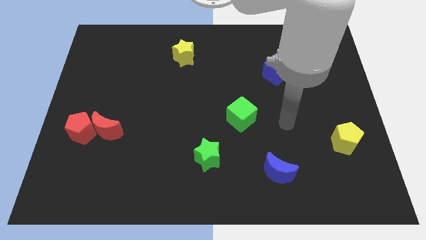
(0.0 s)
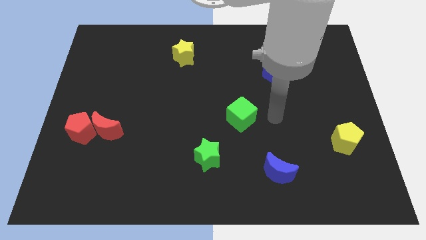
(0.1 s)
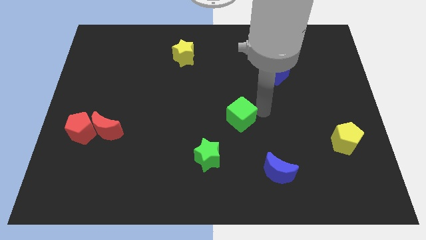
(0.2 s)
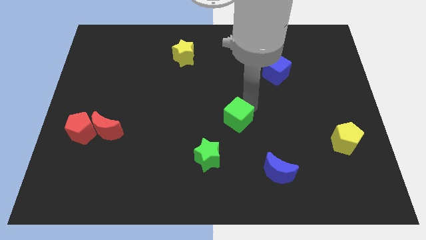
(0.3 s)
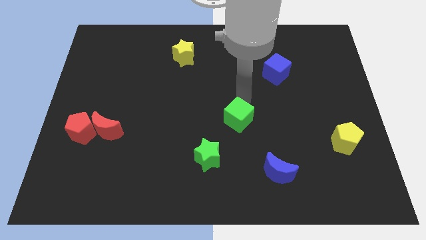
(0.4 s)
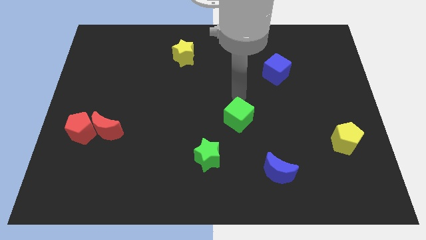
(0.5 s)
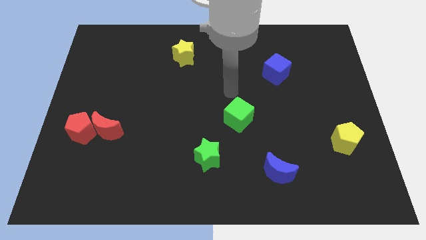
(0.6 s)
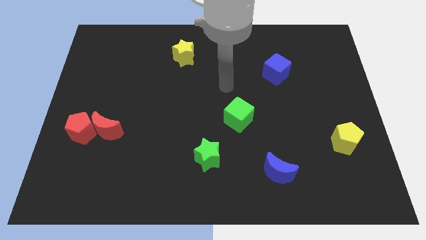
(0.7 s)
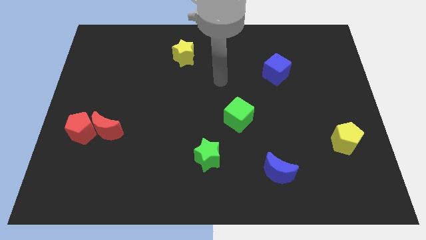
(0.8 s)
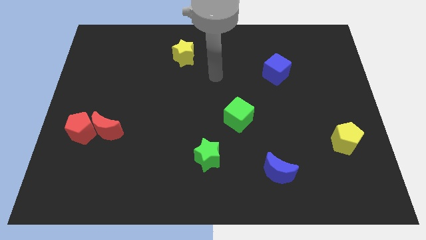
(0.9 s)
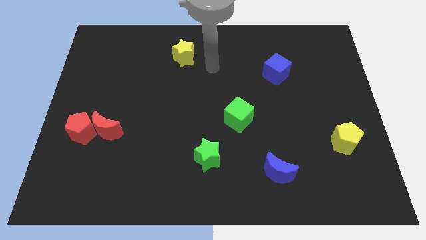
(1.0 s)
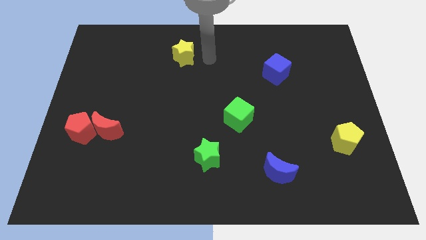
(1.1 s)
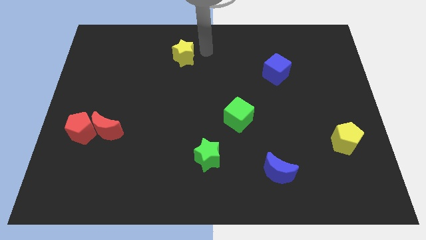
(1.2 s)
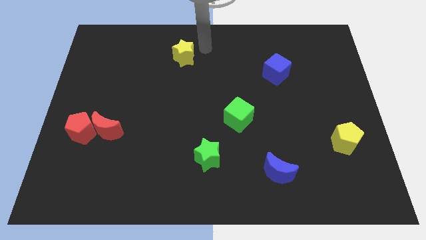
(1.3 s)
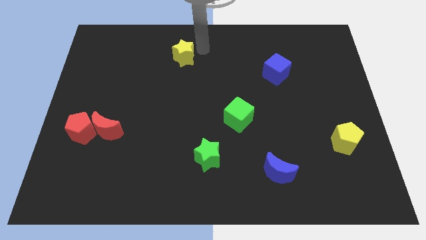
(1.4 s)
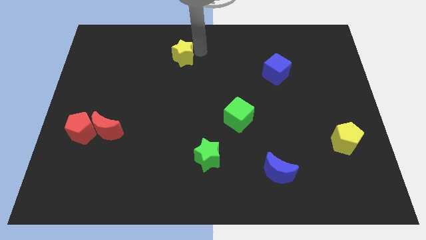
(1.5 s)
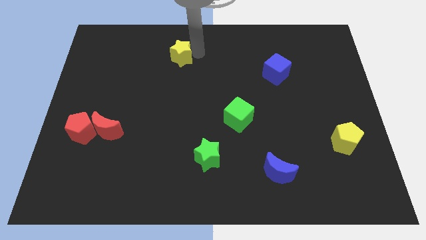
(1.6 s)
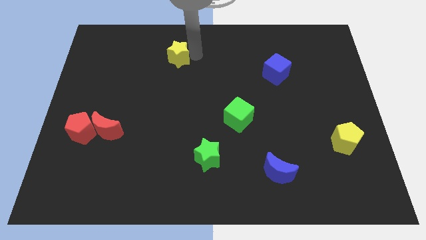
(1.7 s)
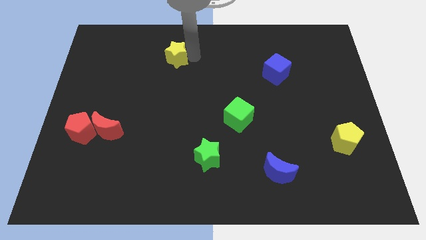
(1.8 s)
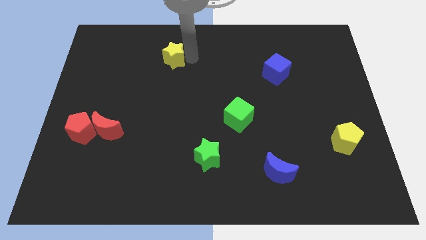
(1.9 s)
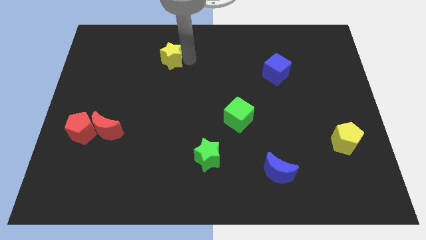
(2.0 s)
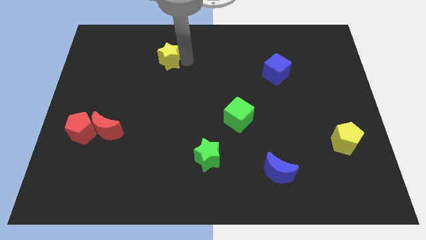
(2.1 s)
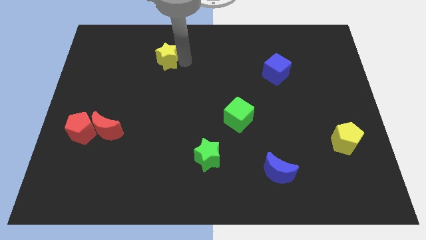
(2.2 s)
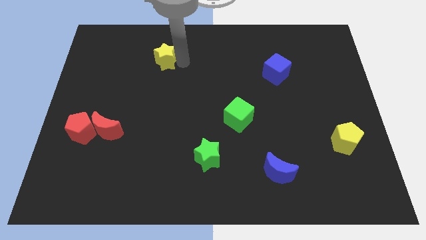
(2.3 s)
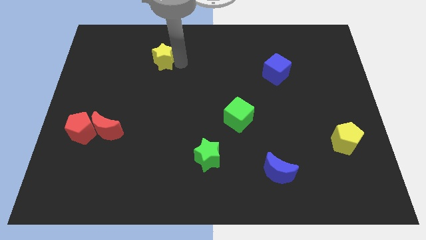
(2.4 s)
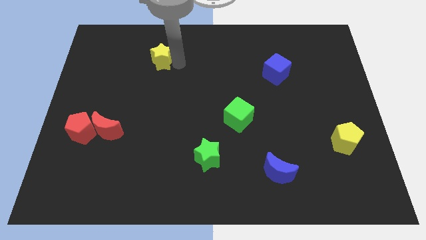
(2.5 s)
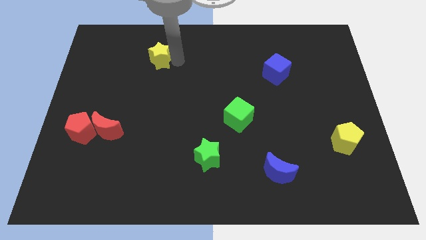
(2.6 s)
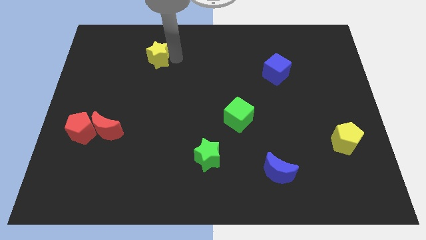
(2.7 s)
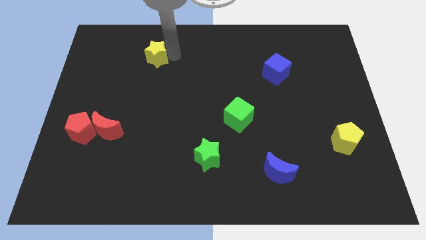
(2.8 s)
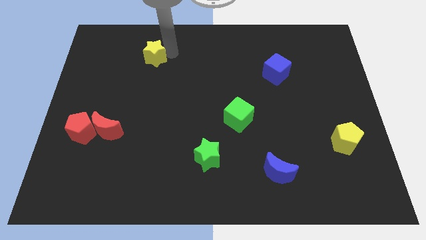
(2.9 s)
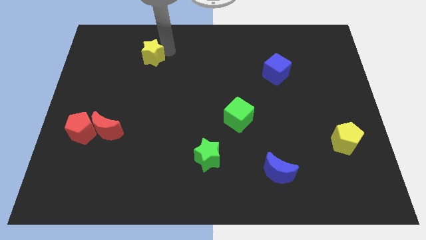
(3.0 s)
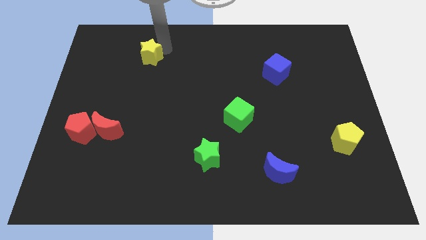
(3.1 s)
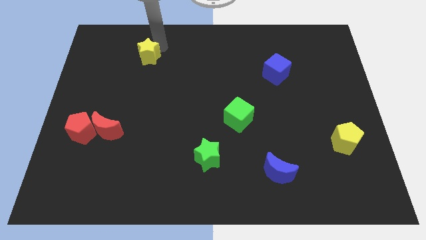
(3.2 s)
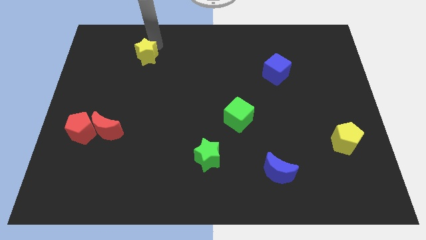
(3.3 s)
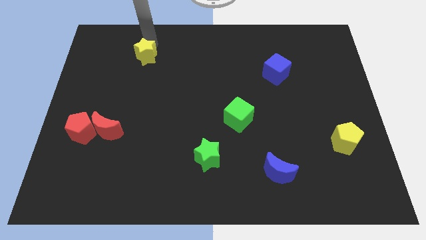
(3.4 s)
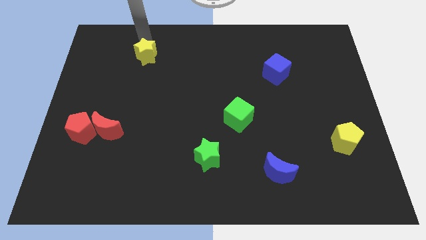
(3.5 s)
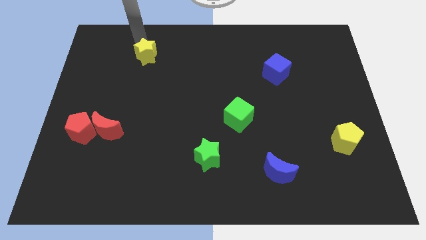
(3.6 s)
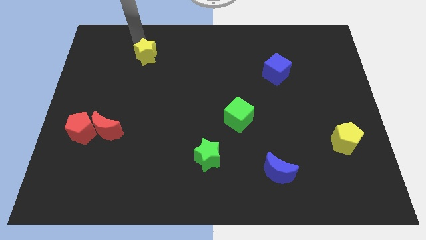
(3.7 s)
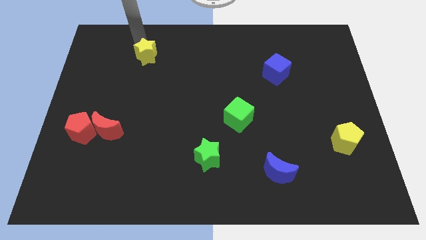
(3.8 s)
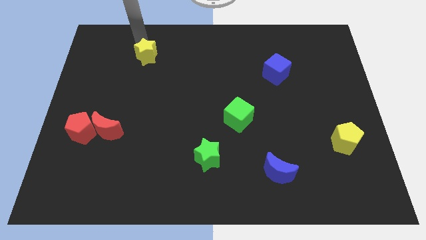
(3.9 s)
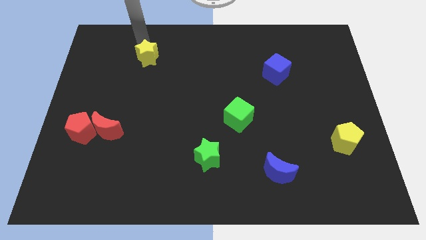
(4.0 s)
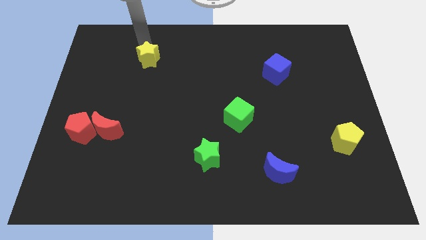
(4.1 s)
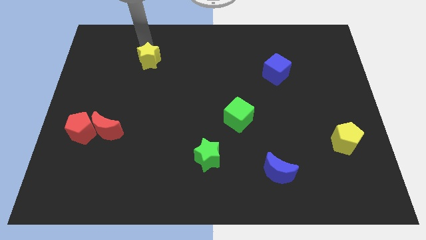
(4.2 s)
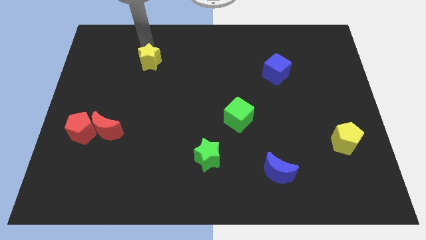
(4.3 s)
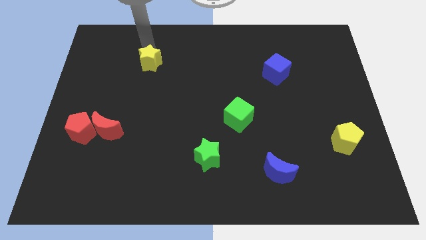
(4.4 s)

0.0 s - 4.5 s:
slightly slide the yellow star downwards and to the left diagonally

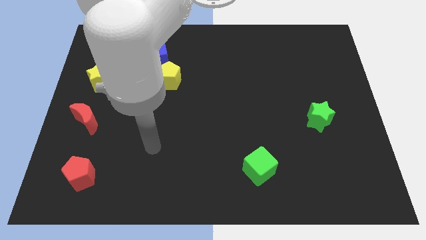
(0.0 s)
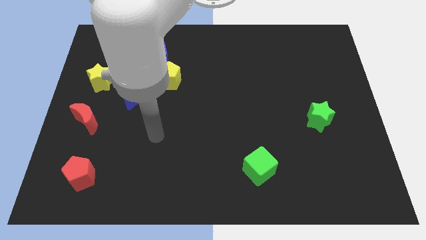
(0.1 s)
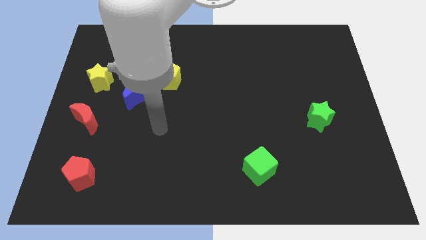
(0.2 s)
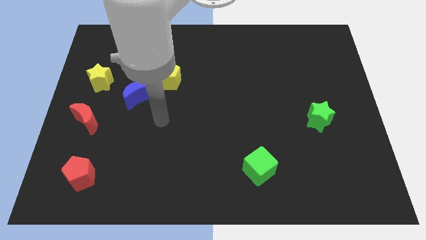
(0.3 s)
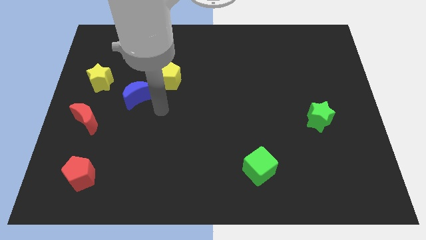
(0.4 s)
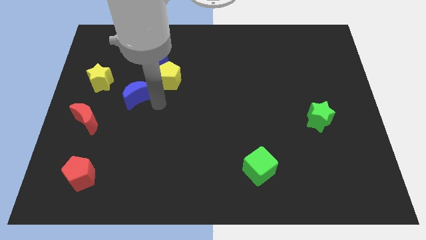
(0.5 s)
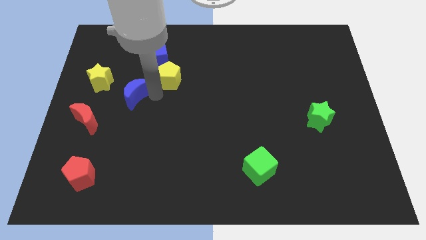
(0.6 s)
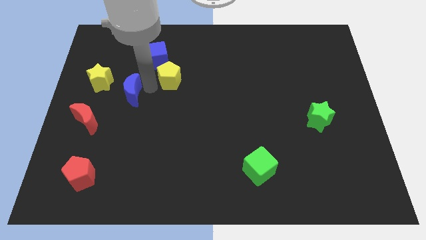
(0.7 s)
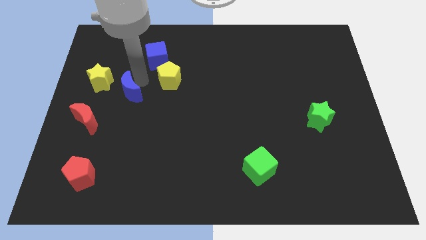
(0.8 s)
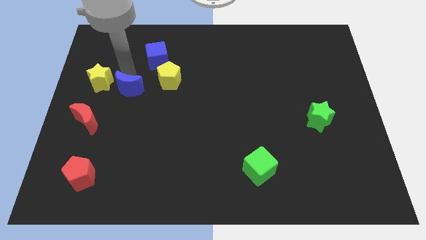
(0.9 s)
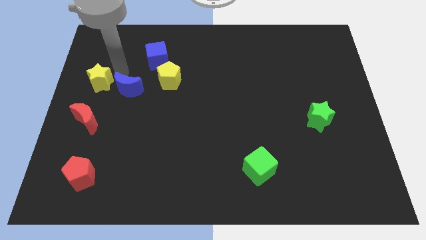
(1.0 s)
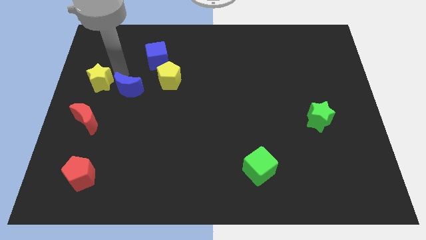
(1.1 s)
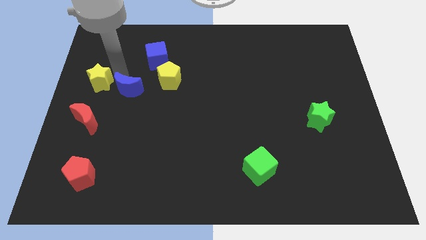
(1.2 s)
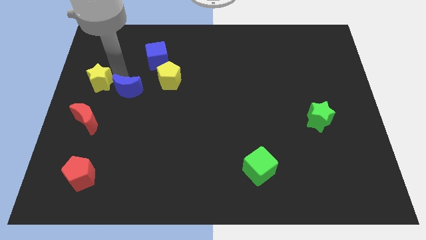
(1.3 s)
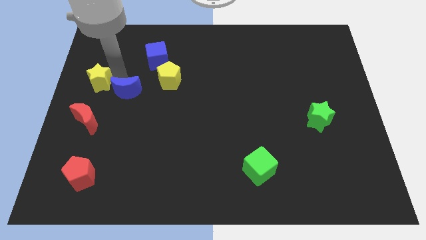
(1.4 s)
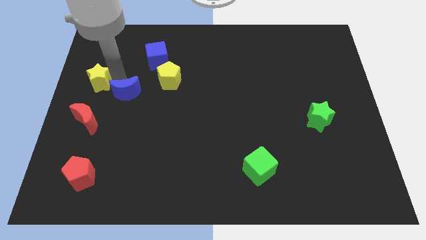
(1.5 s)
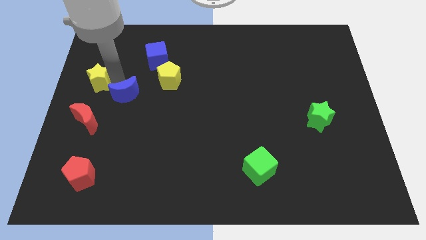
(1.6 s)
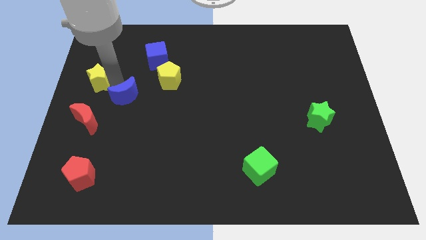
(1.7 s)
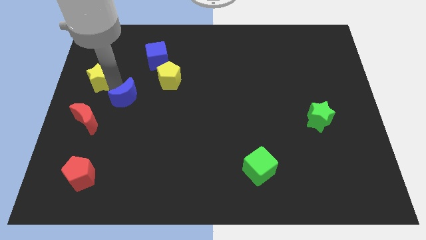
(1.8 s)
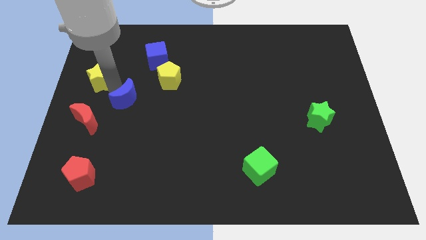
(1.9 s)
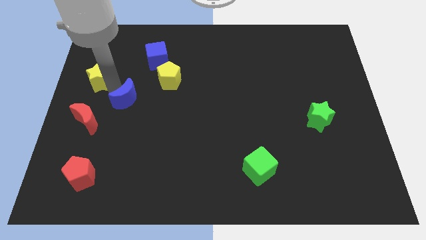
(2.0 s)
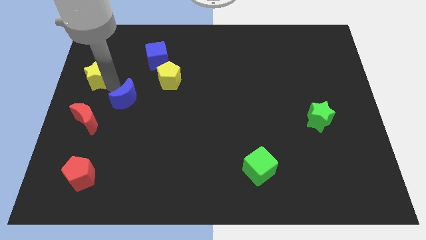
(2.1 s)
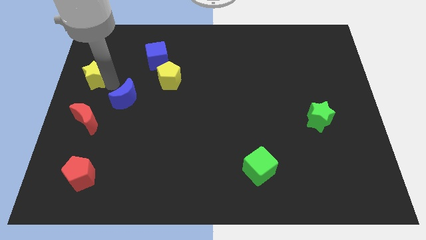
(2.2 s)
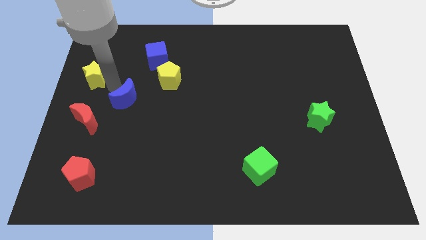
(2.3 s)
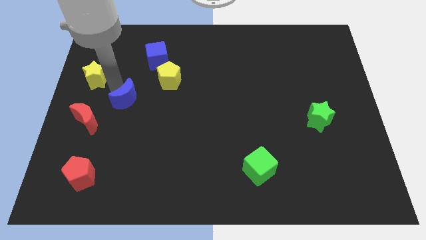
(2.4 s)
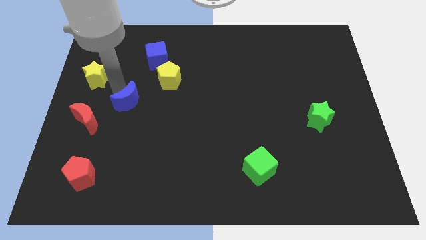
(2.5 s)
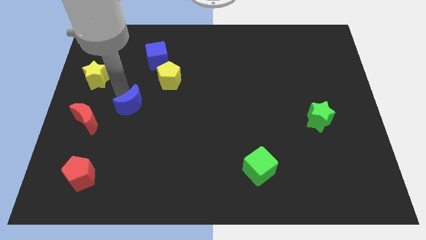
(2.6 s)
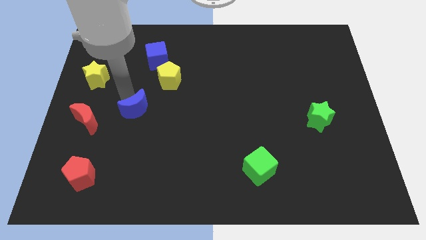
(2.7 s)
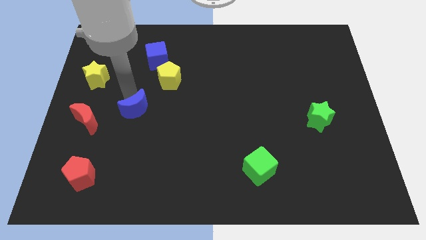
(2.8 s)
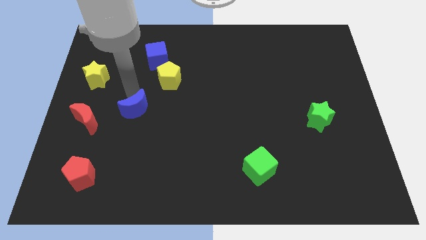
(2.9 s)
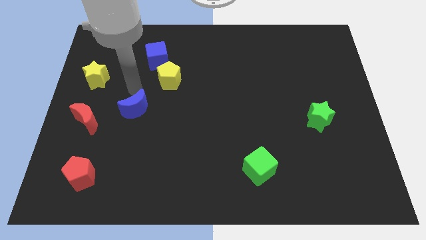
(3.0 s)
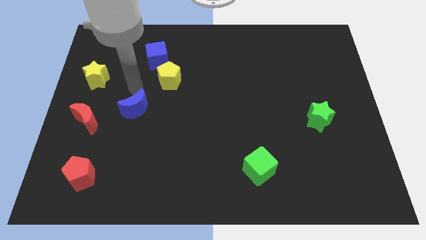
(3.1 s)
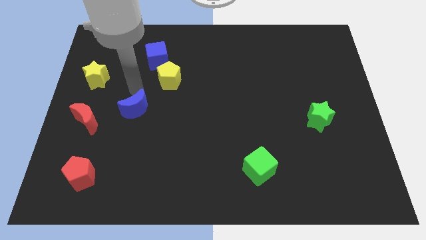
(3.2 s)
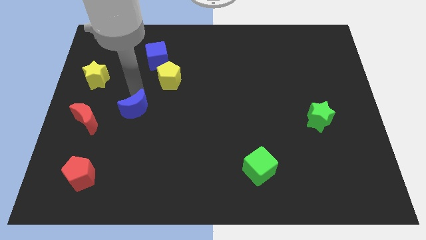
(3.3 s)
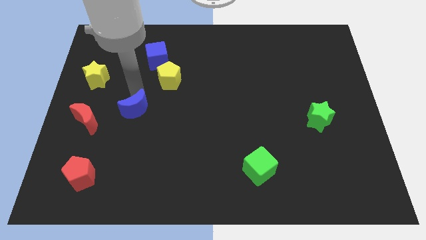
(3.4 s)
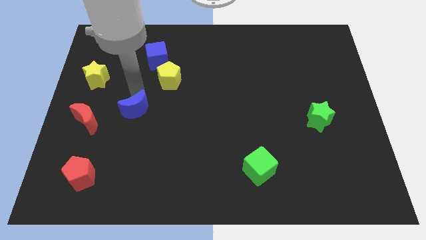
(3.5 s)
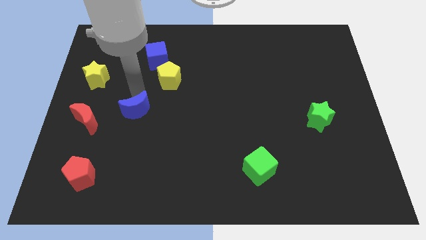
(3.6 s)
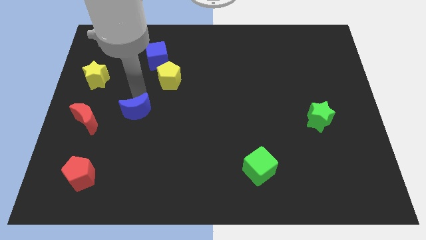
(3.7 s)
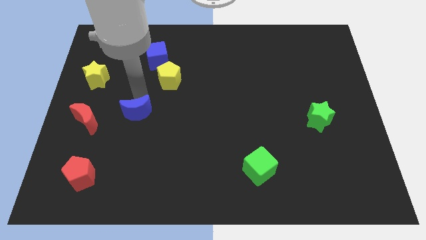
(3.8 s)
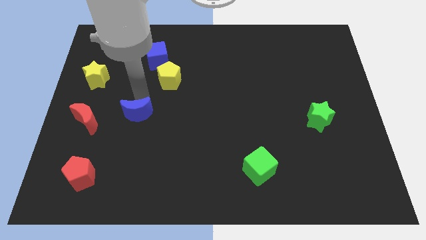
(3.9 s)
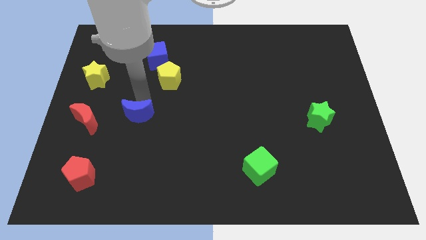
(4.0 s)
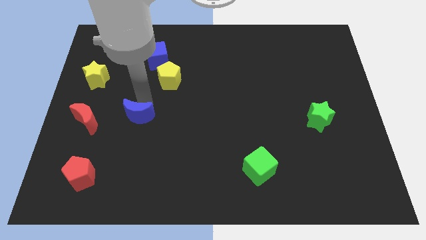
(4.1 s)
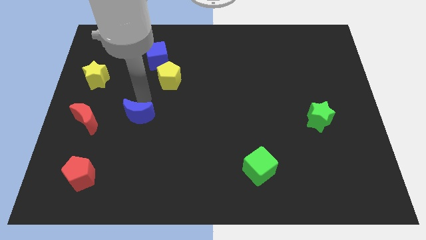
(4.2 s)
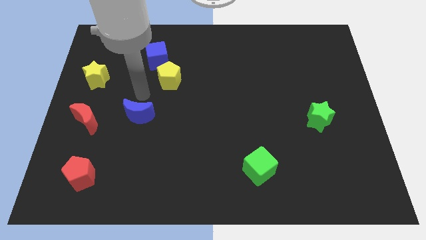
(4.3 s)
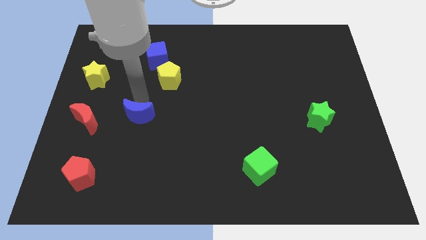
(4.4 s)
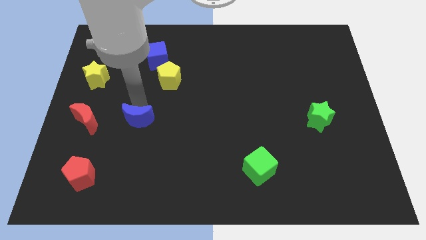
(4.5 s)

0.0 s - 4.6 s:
push the blue moon a little down
